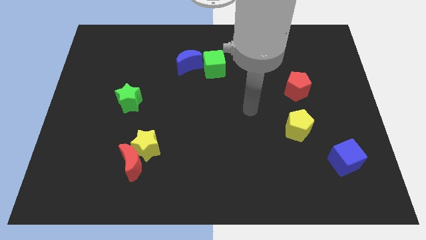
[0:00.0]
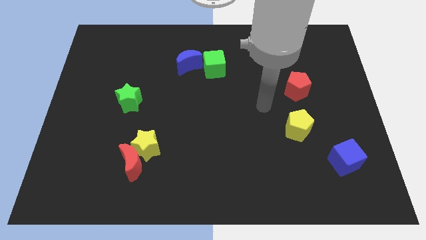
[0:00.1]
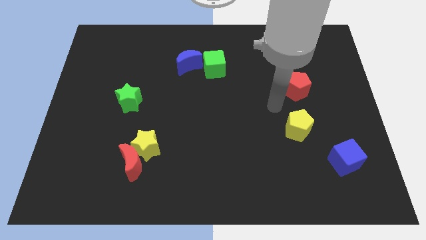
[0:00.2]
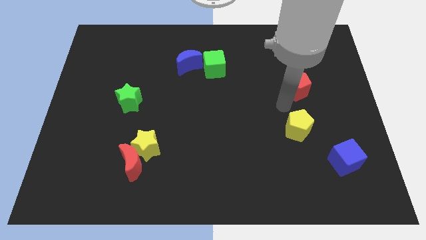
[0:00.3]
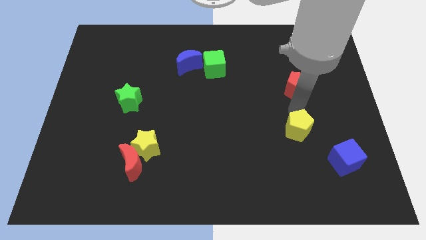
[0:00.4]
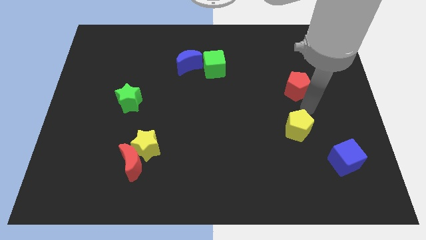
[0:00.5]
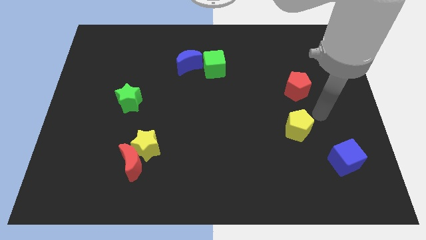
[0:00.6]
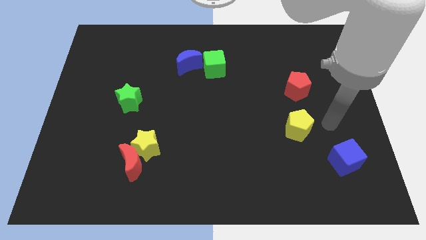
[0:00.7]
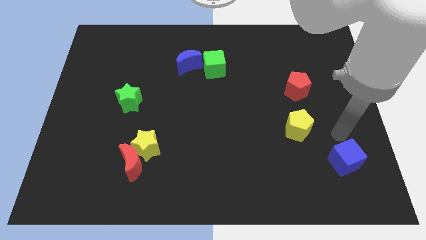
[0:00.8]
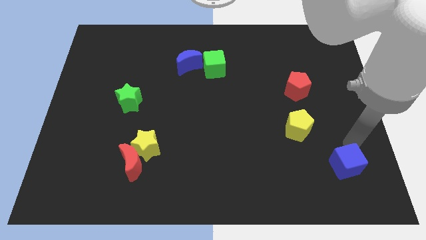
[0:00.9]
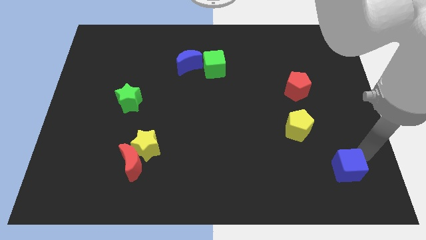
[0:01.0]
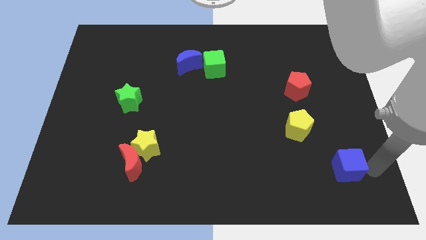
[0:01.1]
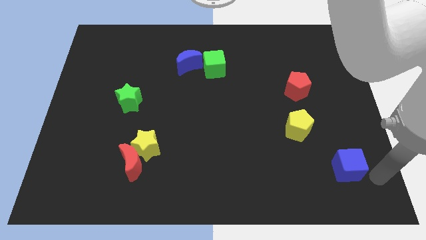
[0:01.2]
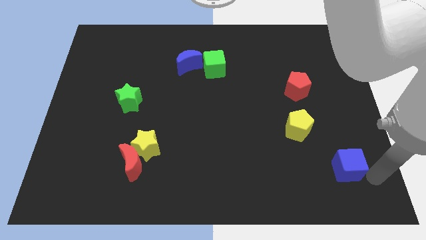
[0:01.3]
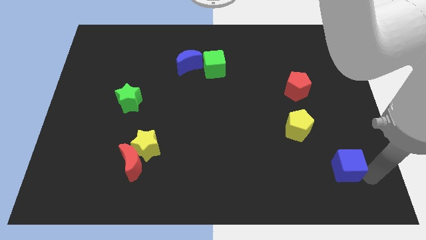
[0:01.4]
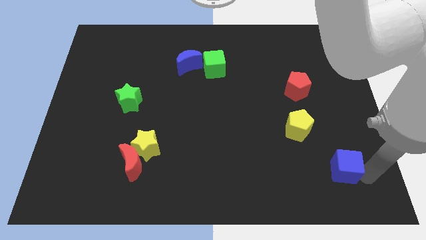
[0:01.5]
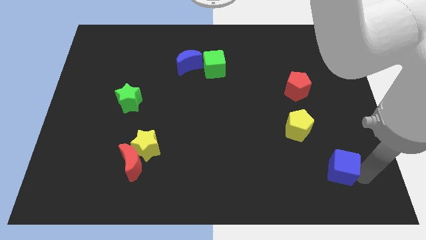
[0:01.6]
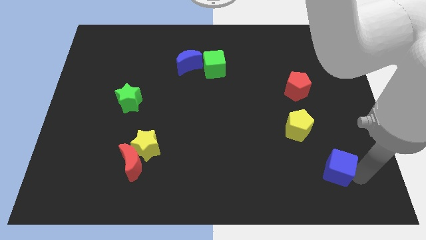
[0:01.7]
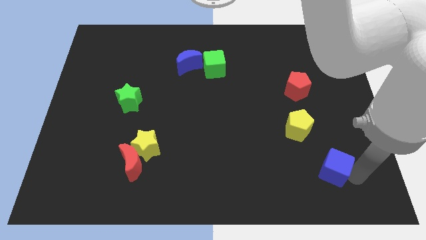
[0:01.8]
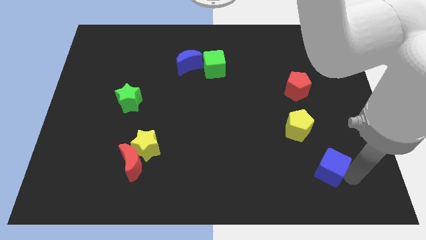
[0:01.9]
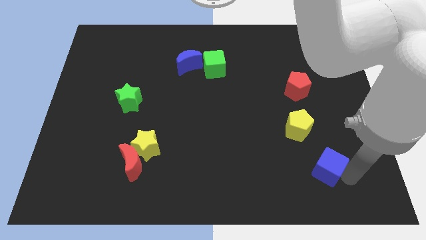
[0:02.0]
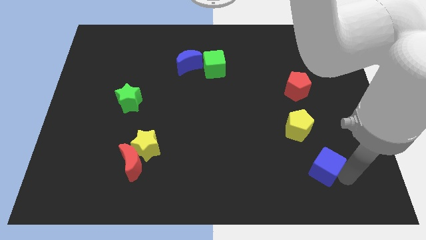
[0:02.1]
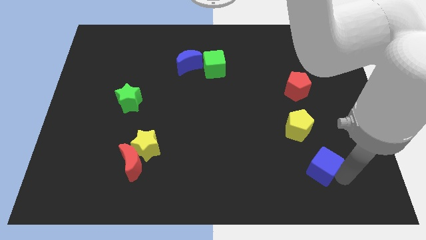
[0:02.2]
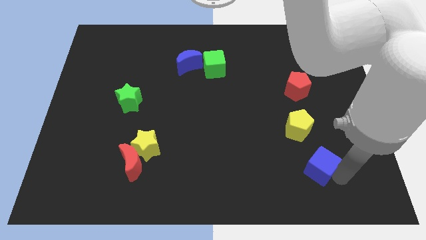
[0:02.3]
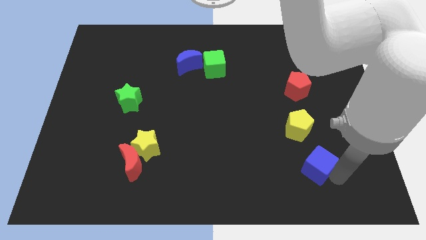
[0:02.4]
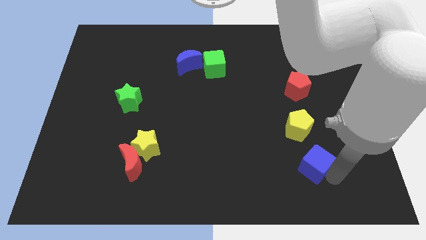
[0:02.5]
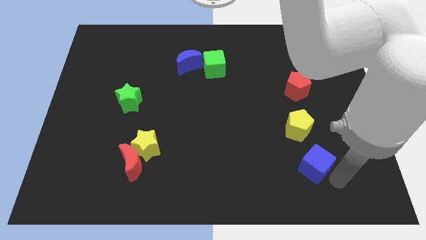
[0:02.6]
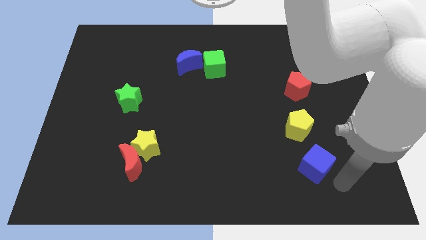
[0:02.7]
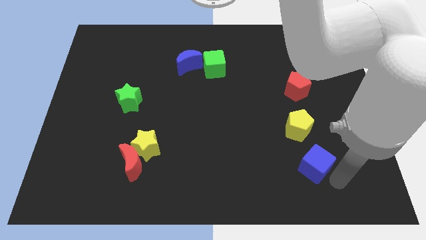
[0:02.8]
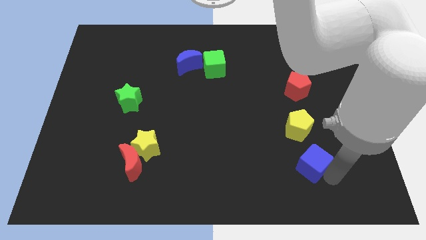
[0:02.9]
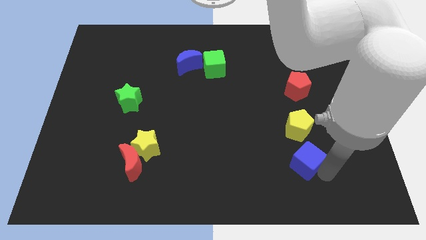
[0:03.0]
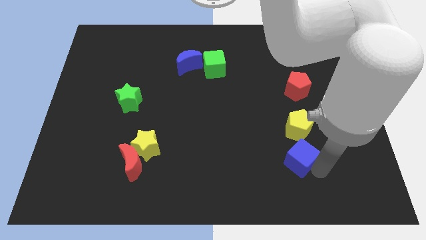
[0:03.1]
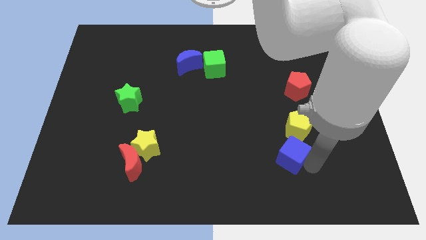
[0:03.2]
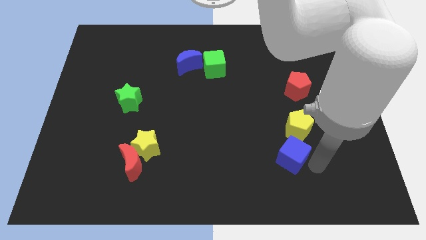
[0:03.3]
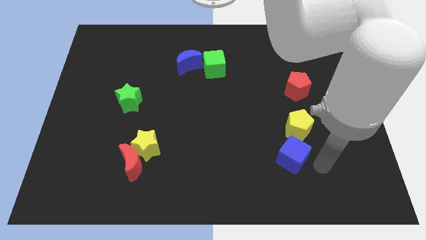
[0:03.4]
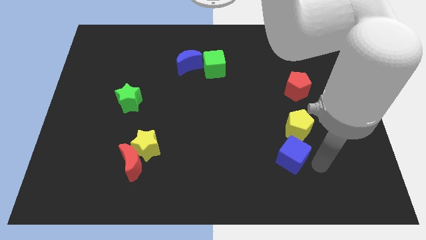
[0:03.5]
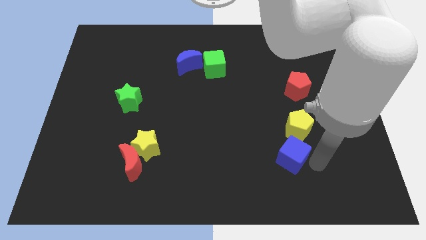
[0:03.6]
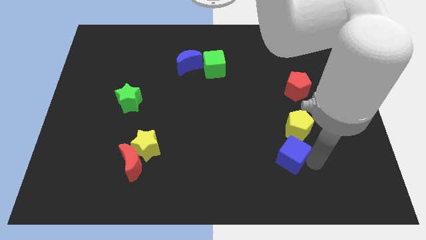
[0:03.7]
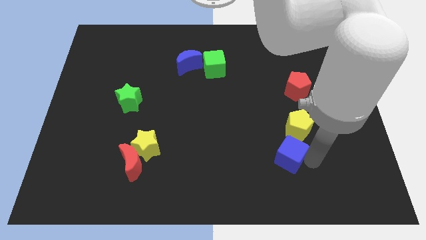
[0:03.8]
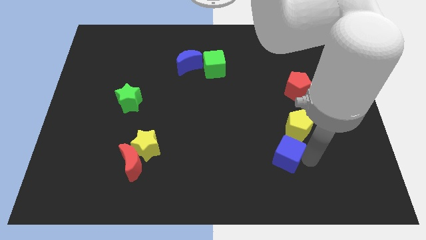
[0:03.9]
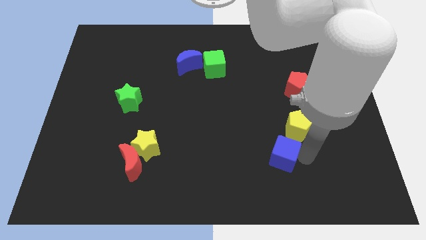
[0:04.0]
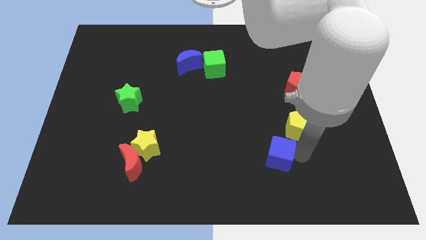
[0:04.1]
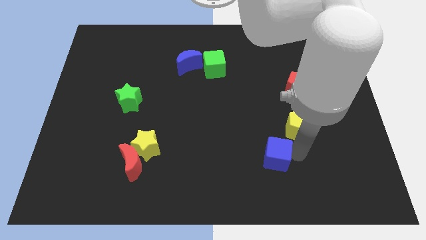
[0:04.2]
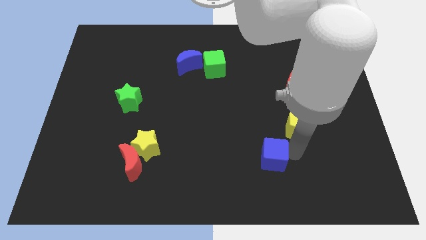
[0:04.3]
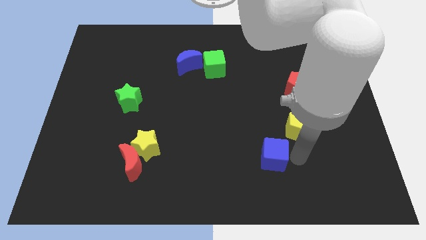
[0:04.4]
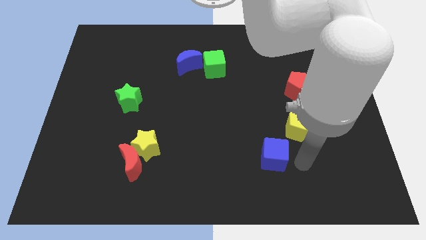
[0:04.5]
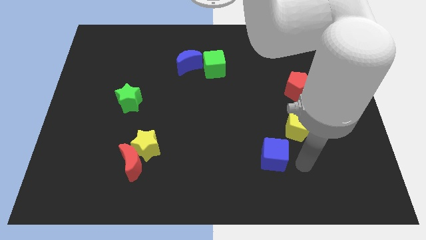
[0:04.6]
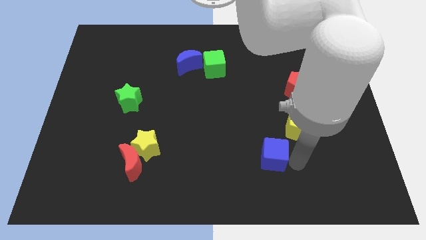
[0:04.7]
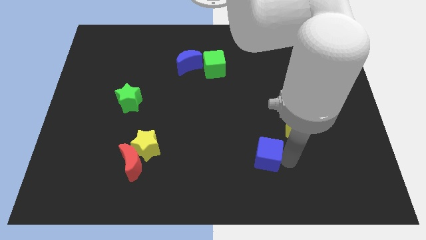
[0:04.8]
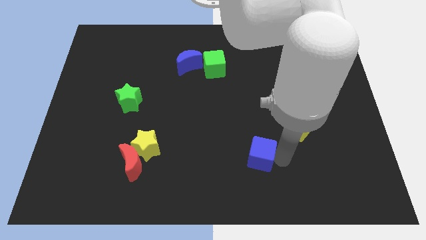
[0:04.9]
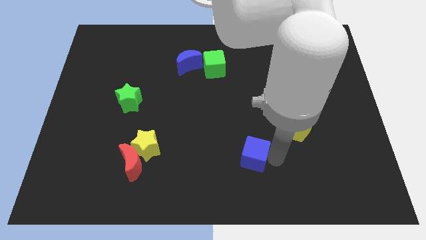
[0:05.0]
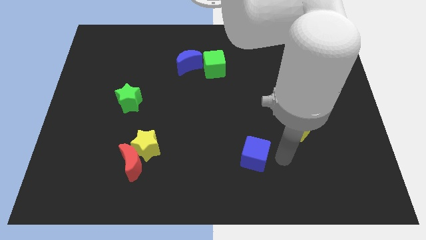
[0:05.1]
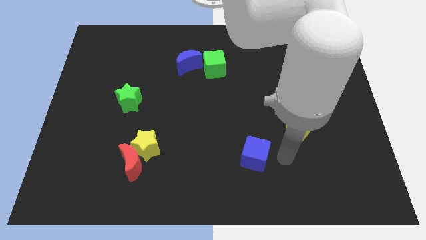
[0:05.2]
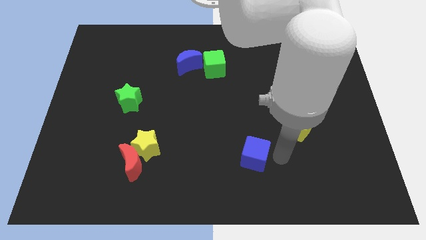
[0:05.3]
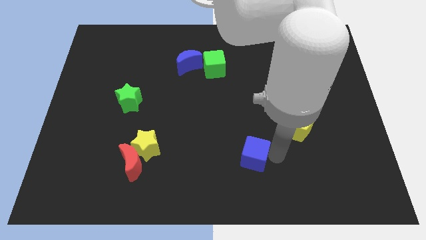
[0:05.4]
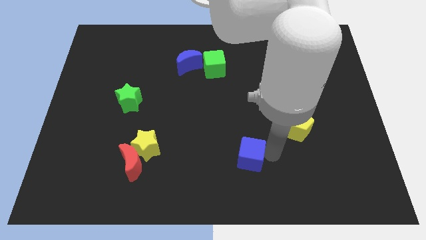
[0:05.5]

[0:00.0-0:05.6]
push the blue cube to the left

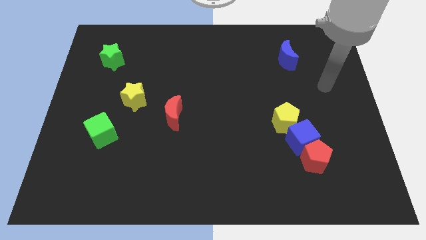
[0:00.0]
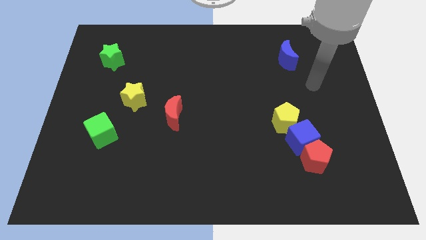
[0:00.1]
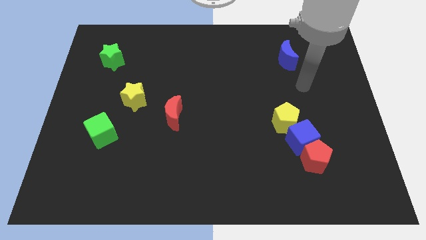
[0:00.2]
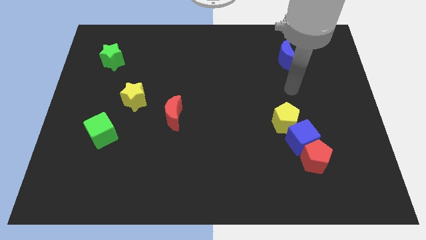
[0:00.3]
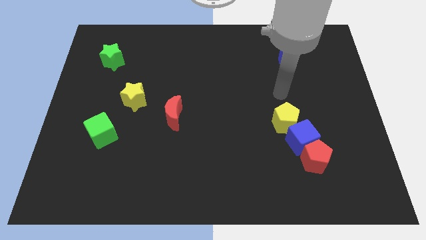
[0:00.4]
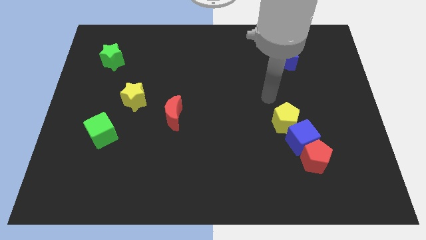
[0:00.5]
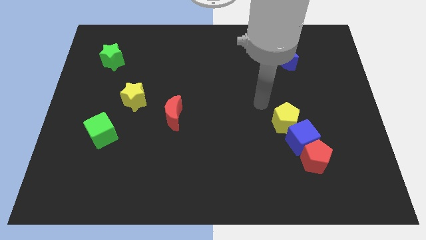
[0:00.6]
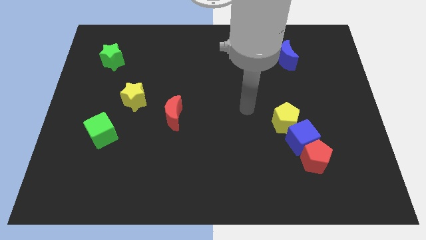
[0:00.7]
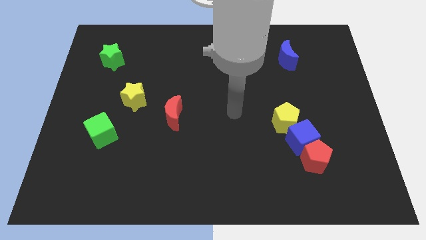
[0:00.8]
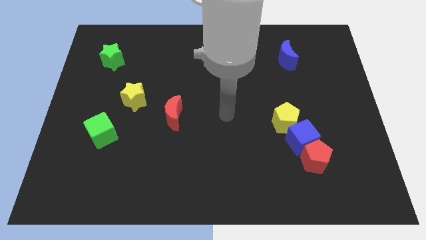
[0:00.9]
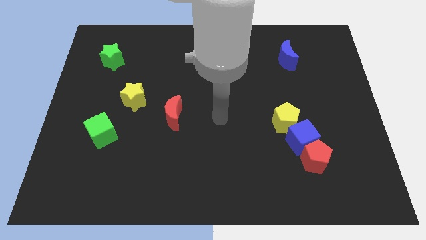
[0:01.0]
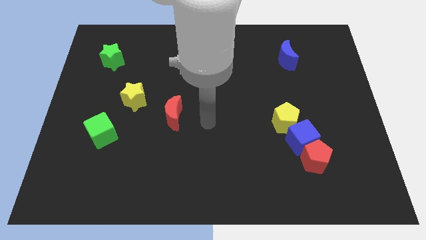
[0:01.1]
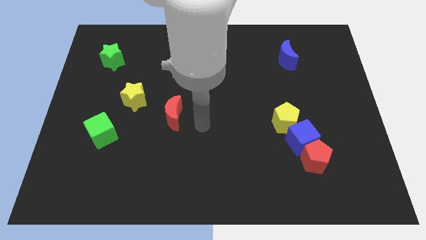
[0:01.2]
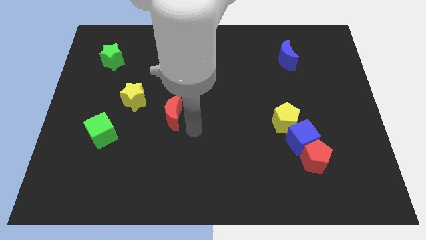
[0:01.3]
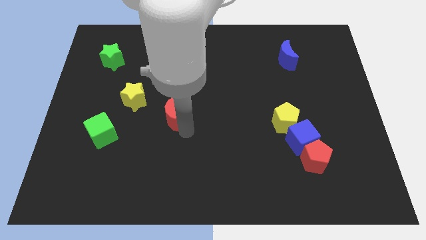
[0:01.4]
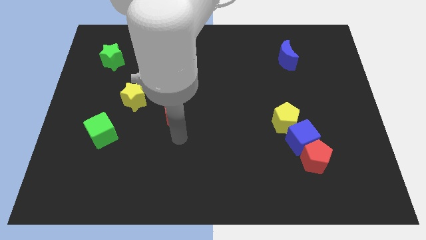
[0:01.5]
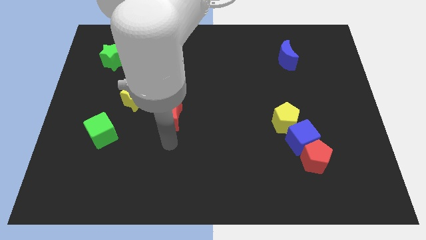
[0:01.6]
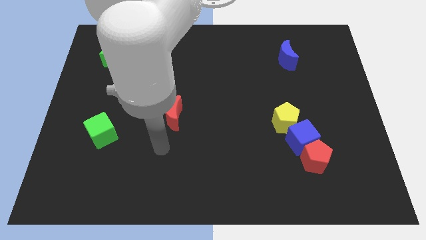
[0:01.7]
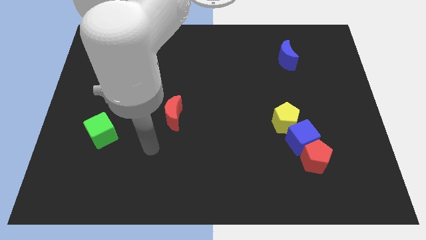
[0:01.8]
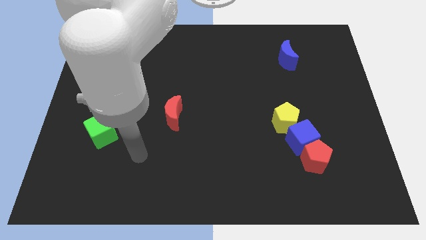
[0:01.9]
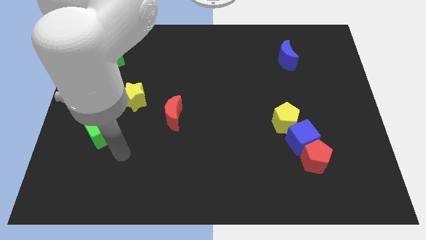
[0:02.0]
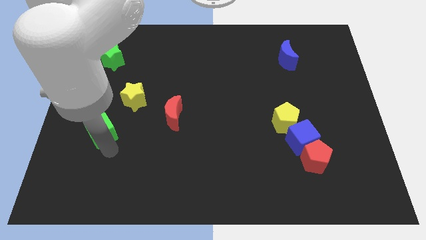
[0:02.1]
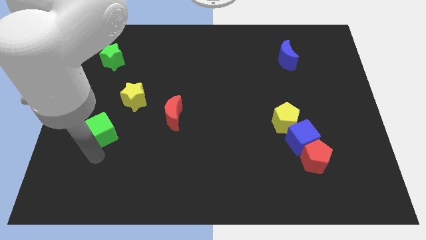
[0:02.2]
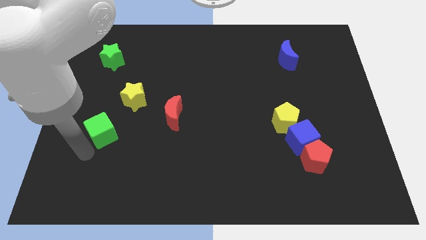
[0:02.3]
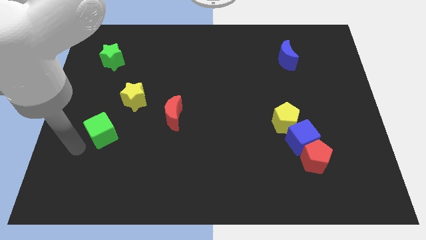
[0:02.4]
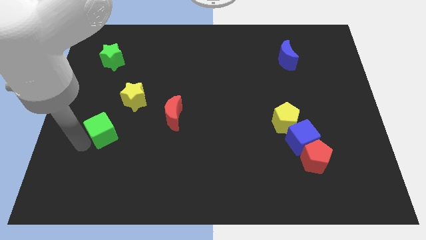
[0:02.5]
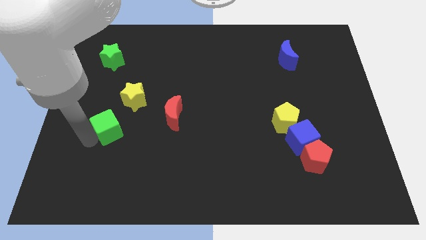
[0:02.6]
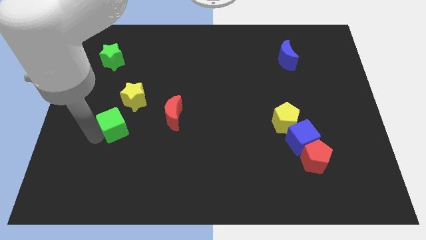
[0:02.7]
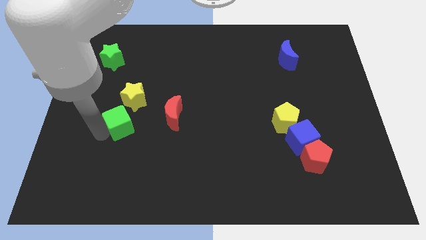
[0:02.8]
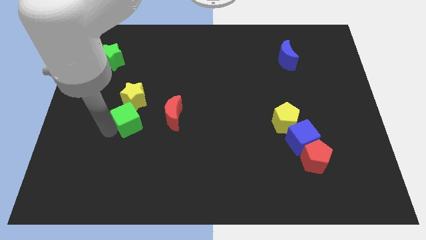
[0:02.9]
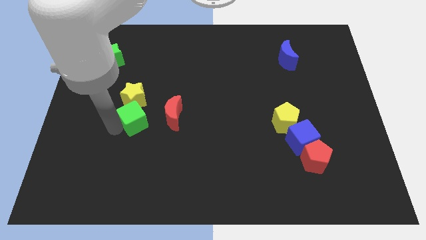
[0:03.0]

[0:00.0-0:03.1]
push the green cube slightly up and to the right diagonally
